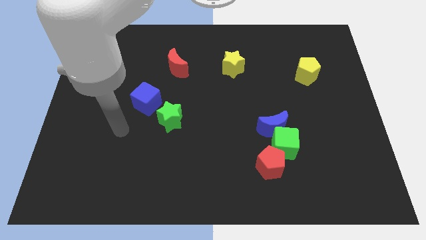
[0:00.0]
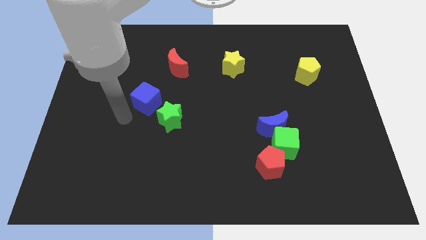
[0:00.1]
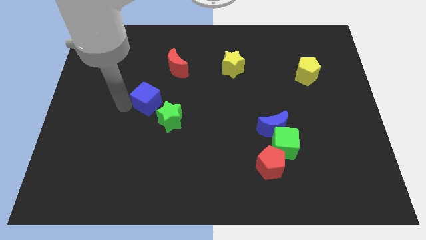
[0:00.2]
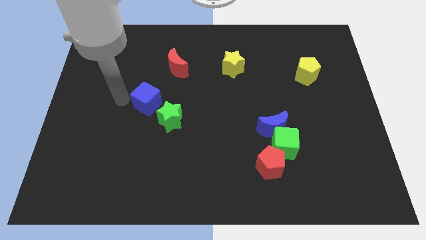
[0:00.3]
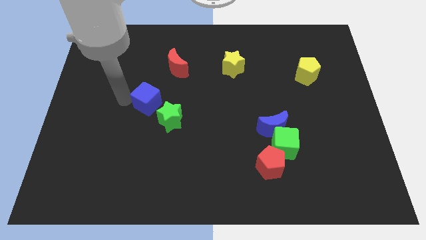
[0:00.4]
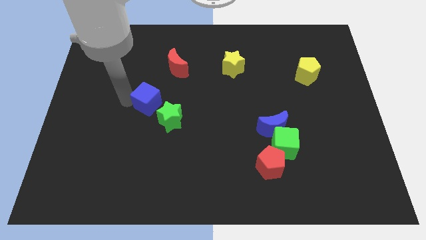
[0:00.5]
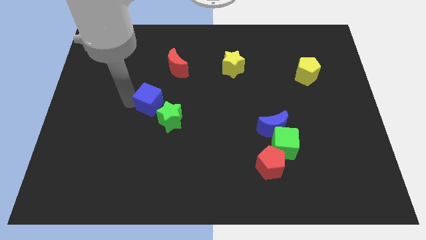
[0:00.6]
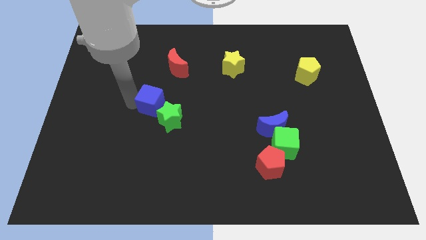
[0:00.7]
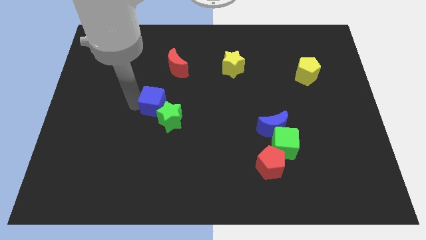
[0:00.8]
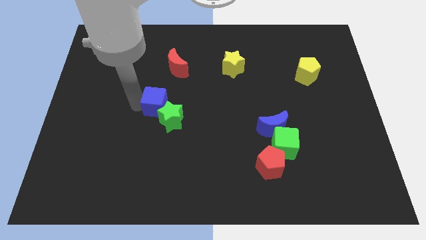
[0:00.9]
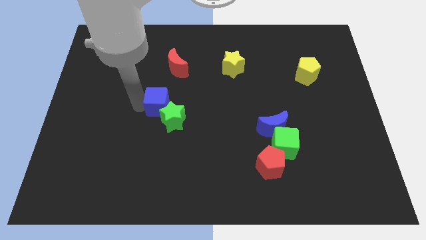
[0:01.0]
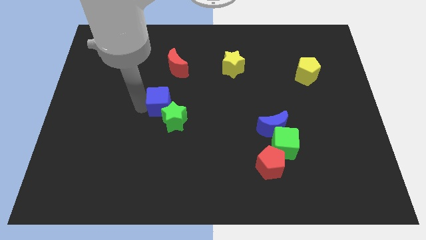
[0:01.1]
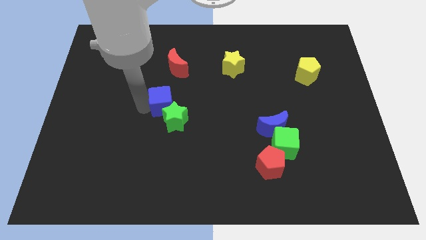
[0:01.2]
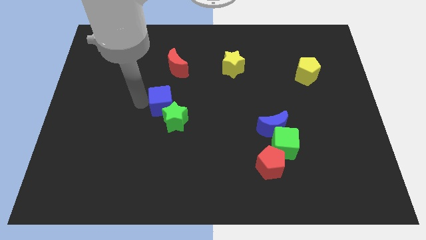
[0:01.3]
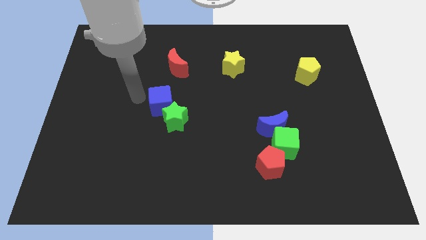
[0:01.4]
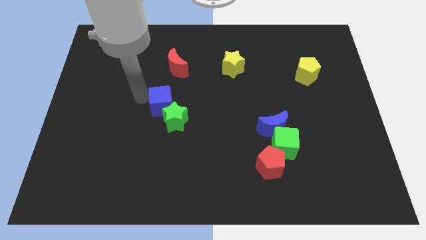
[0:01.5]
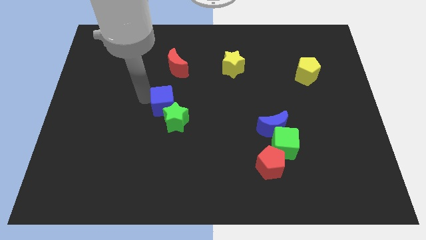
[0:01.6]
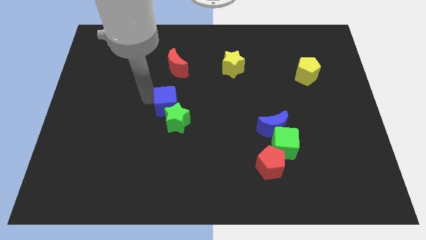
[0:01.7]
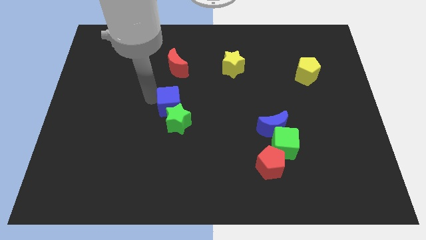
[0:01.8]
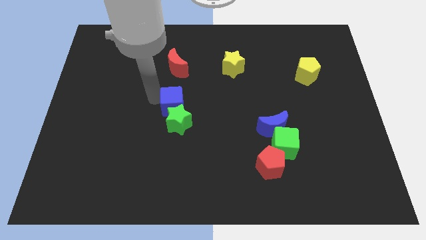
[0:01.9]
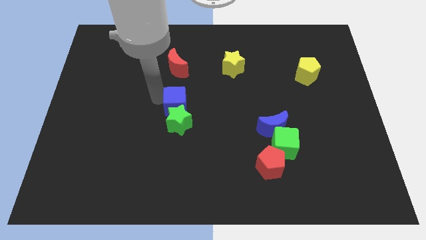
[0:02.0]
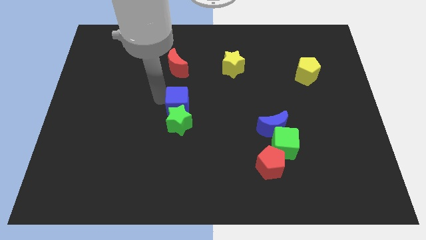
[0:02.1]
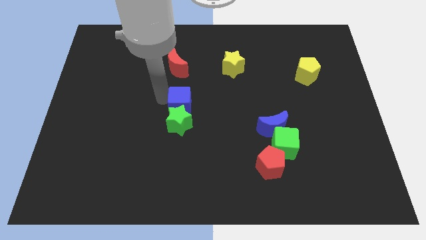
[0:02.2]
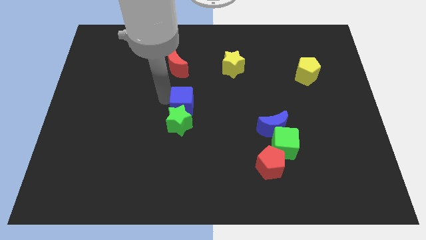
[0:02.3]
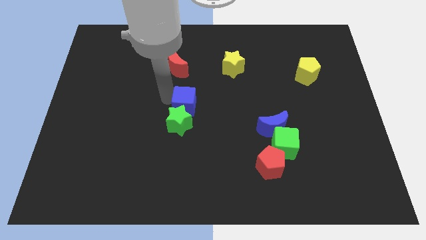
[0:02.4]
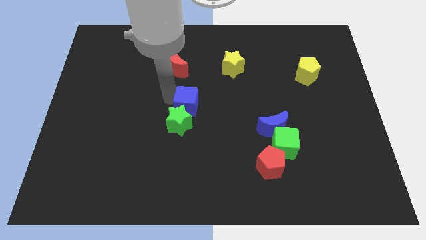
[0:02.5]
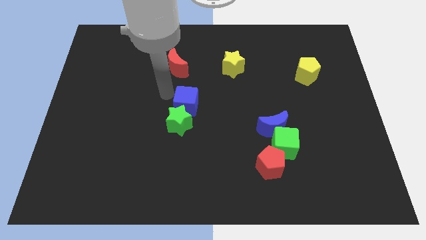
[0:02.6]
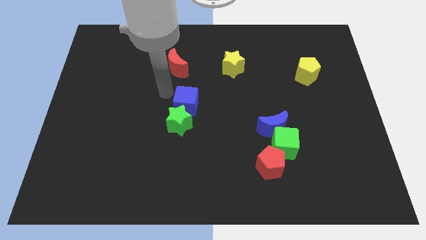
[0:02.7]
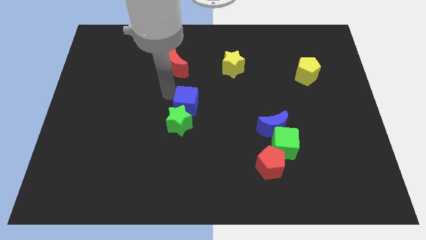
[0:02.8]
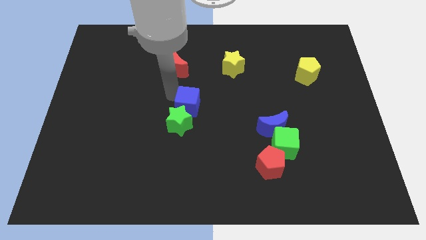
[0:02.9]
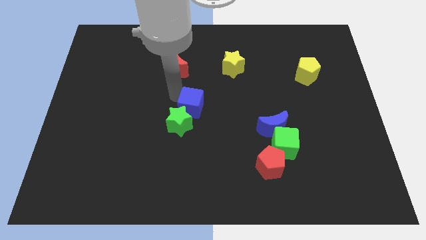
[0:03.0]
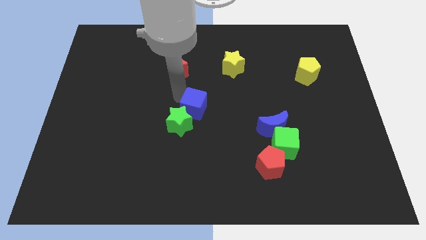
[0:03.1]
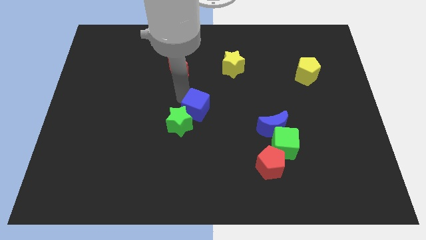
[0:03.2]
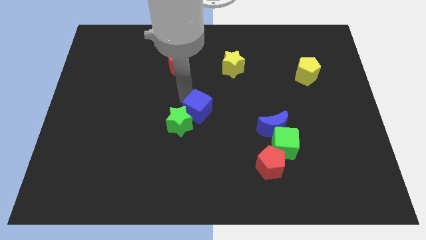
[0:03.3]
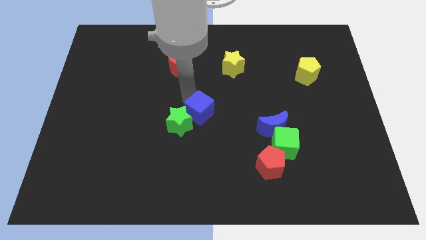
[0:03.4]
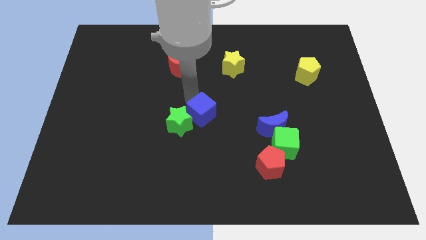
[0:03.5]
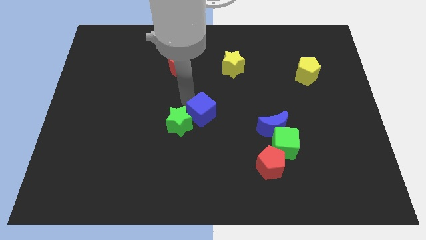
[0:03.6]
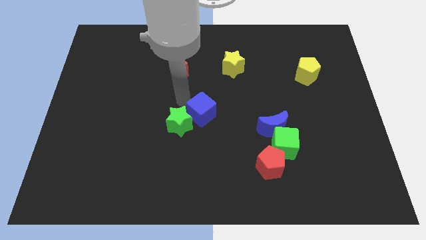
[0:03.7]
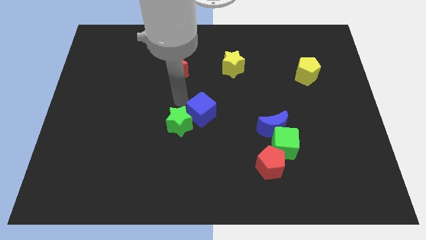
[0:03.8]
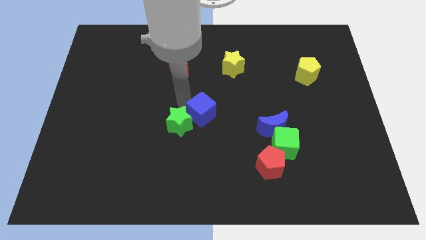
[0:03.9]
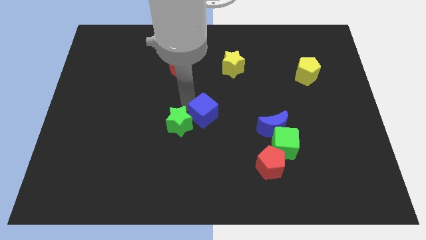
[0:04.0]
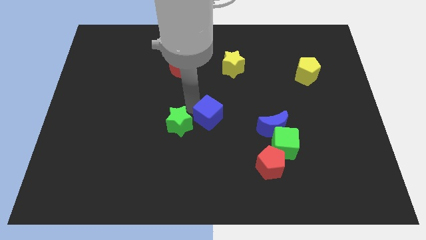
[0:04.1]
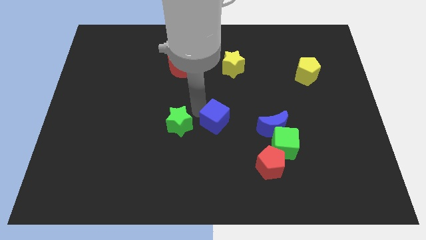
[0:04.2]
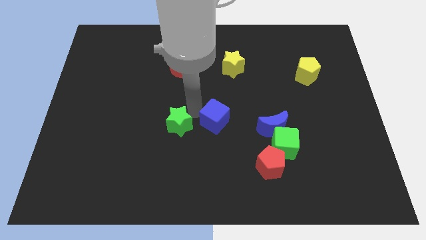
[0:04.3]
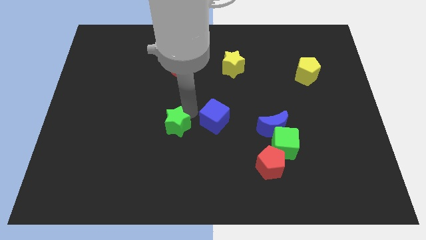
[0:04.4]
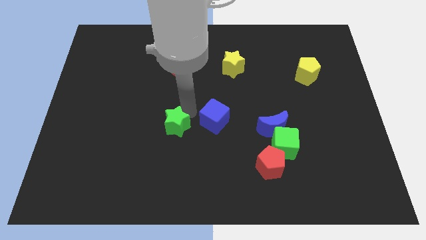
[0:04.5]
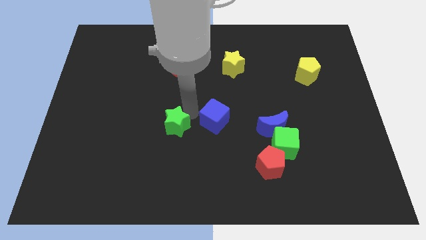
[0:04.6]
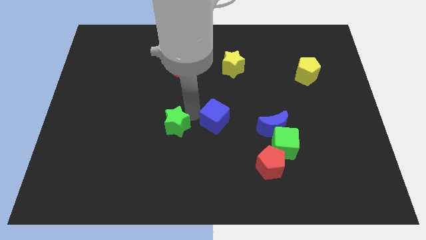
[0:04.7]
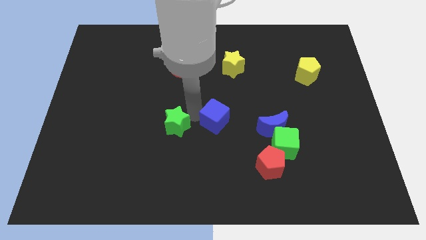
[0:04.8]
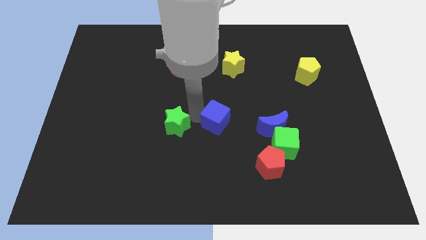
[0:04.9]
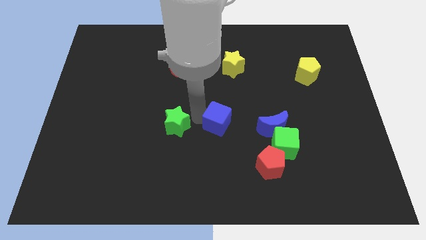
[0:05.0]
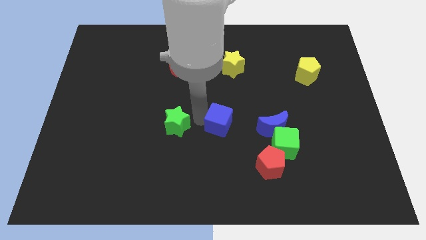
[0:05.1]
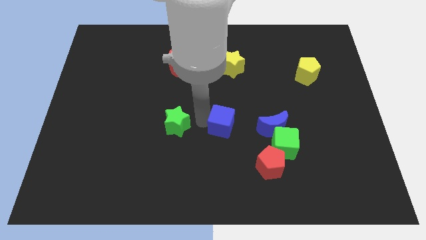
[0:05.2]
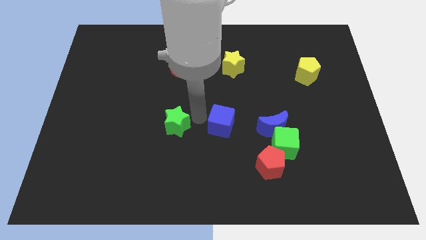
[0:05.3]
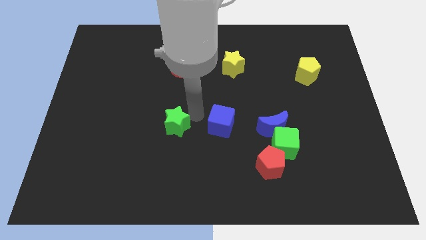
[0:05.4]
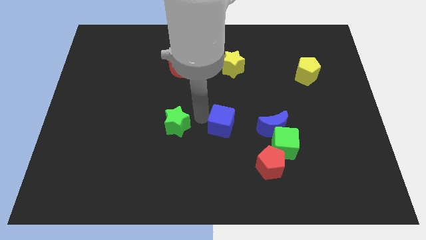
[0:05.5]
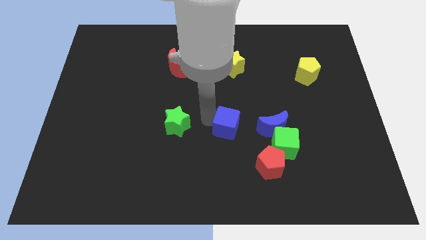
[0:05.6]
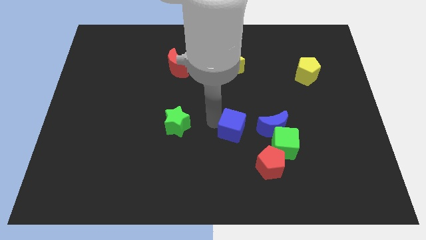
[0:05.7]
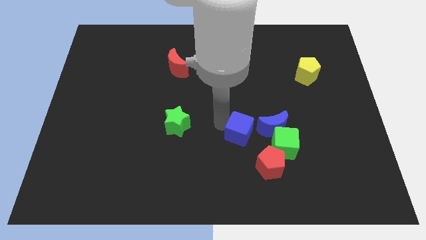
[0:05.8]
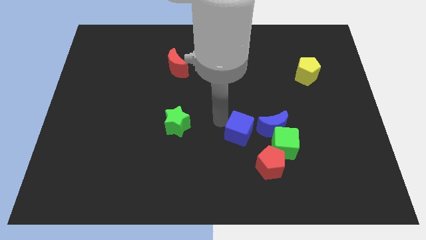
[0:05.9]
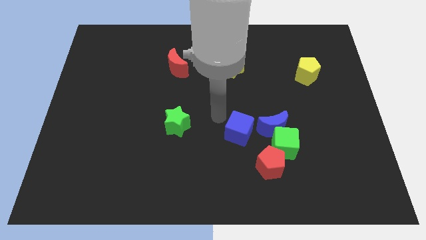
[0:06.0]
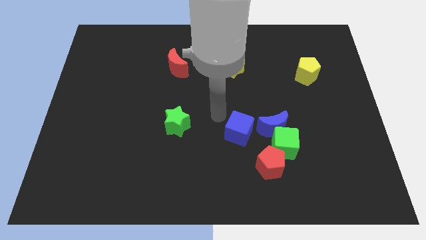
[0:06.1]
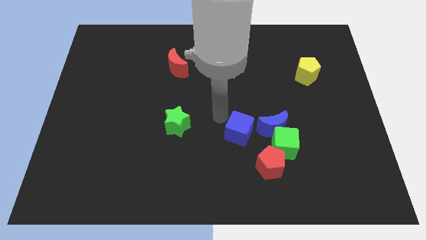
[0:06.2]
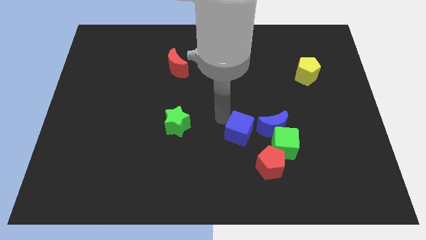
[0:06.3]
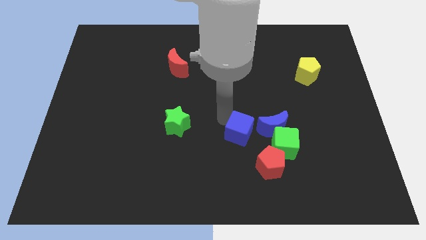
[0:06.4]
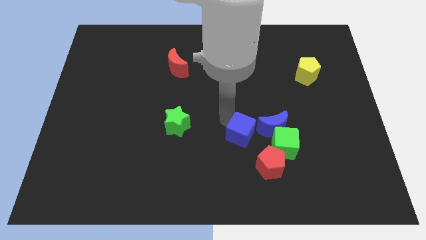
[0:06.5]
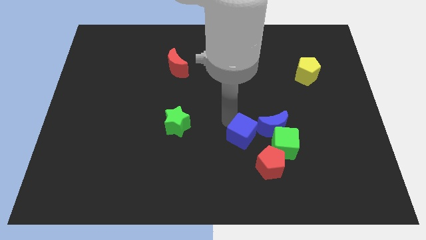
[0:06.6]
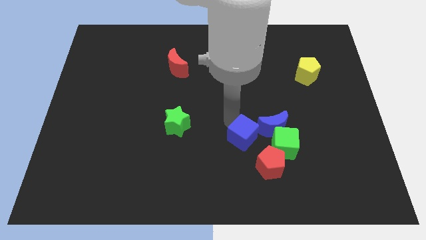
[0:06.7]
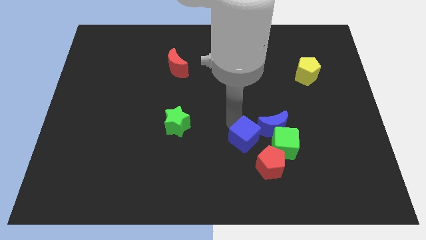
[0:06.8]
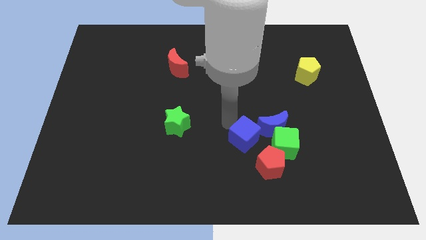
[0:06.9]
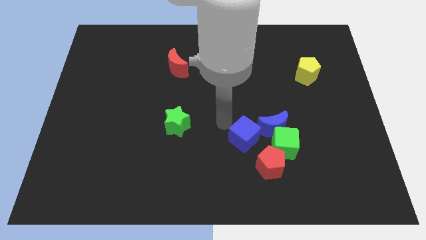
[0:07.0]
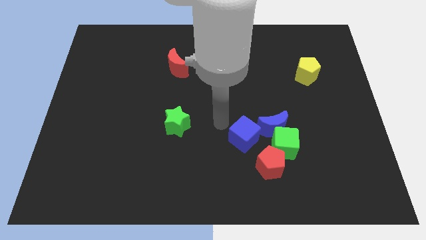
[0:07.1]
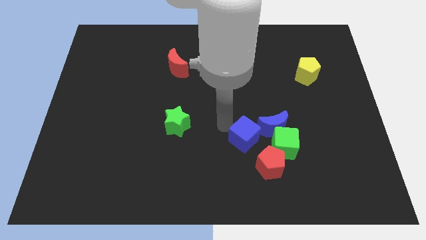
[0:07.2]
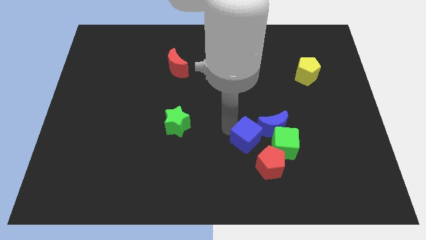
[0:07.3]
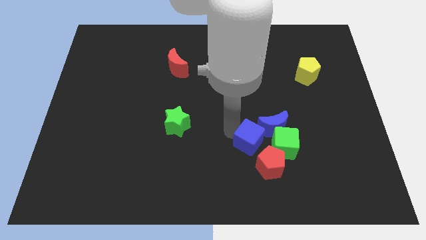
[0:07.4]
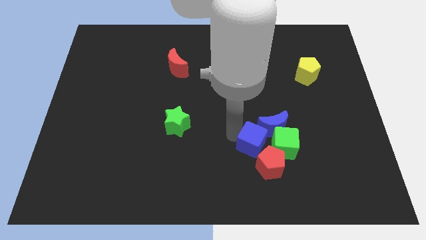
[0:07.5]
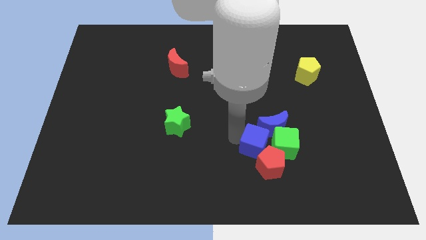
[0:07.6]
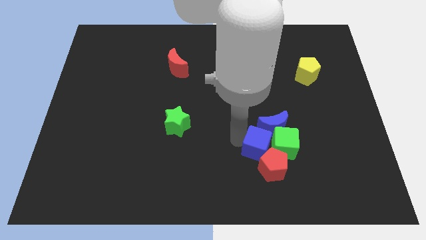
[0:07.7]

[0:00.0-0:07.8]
move the blue cube next to the green cube
